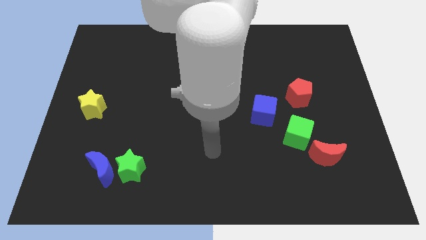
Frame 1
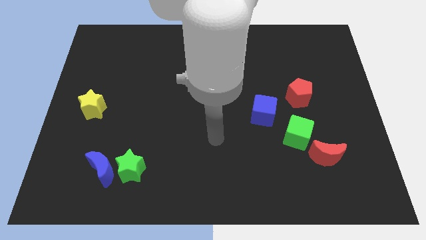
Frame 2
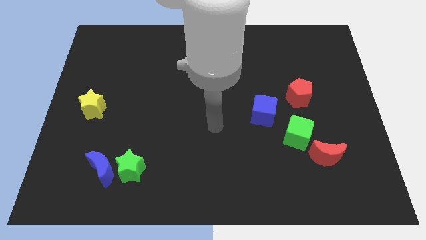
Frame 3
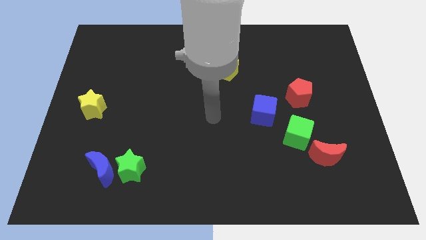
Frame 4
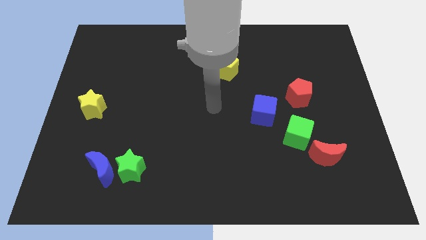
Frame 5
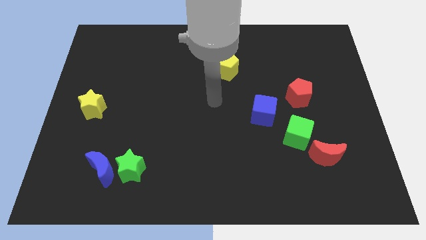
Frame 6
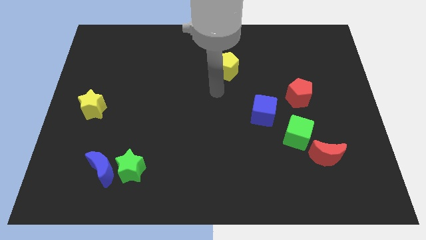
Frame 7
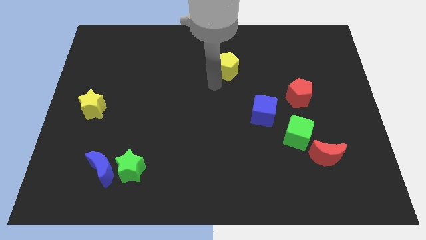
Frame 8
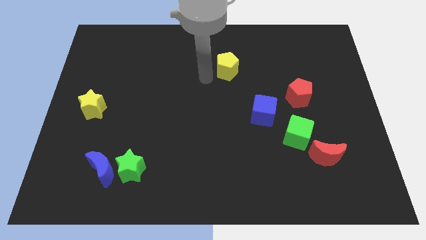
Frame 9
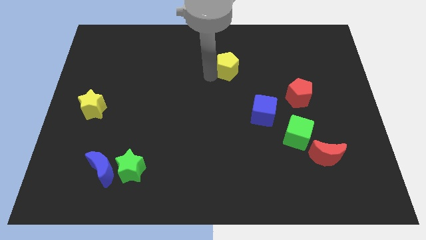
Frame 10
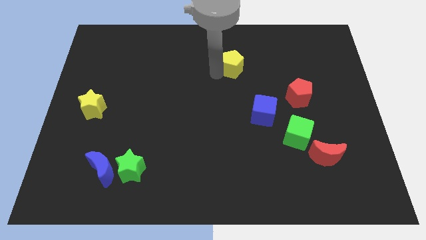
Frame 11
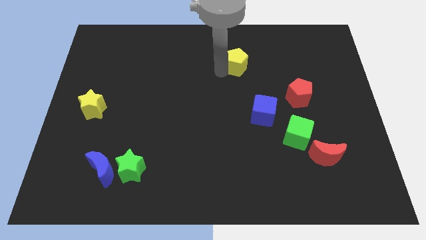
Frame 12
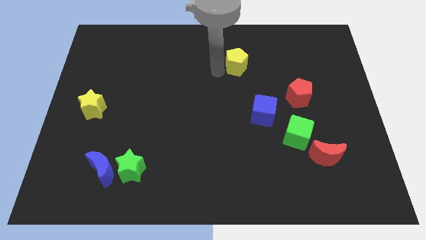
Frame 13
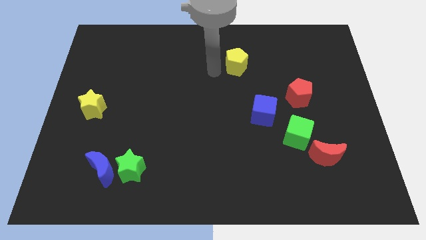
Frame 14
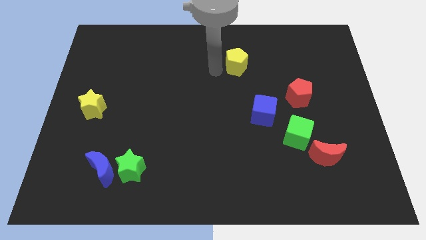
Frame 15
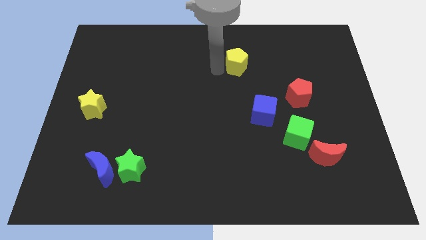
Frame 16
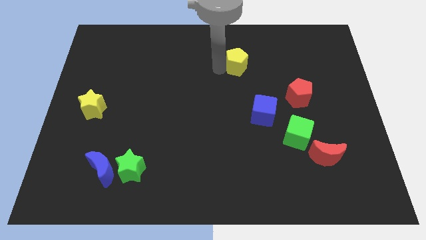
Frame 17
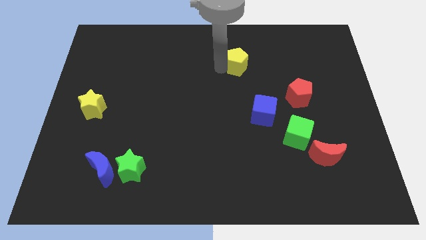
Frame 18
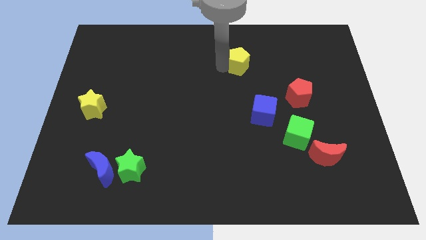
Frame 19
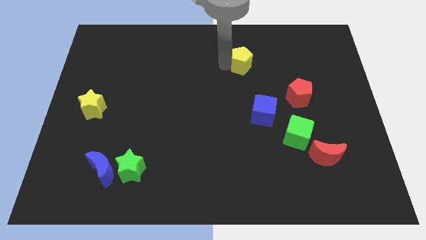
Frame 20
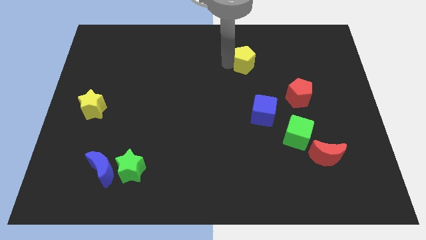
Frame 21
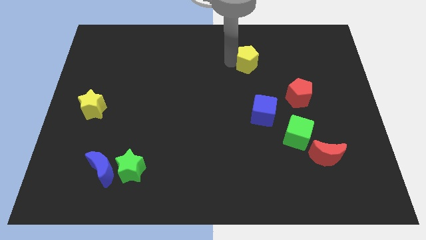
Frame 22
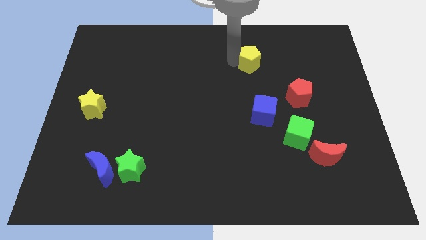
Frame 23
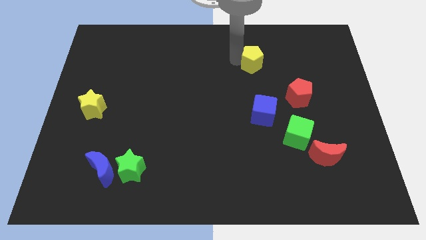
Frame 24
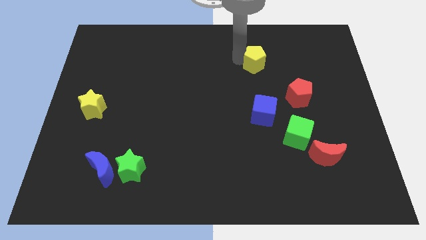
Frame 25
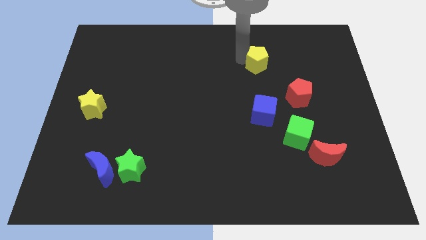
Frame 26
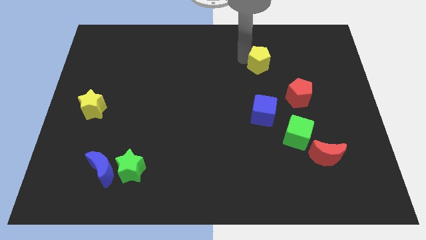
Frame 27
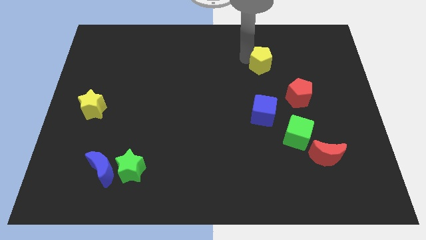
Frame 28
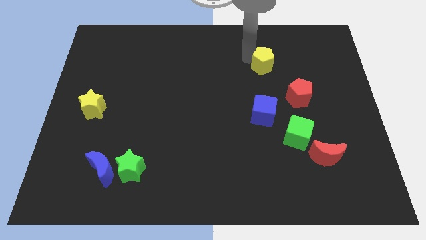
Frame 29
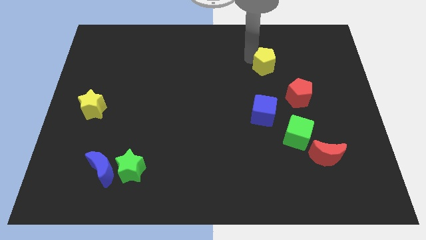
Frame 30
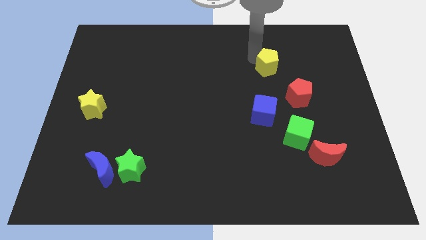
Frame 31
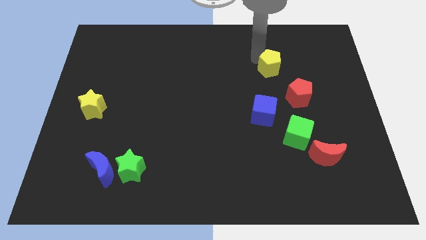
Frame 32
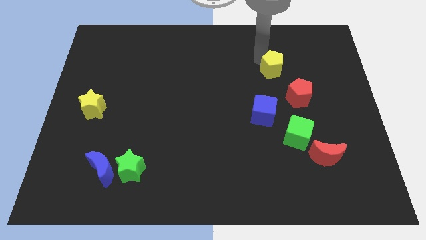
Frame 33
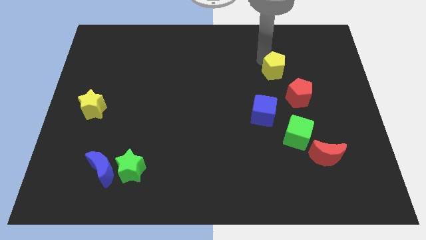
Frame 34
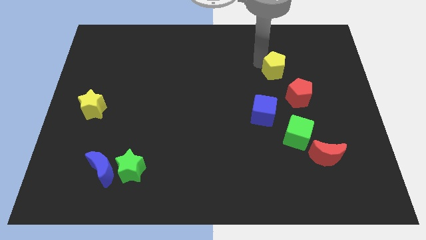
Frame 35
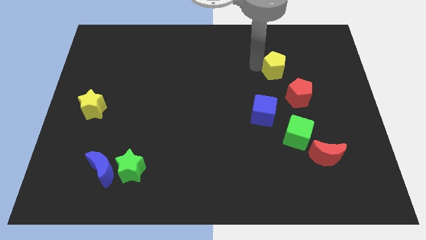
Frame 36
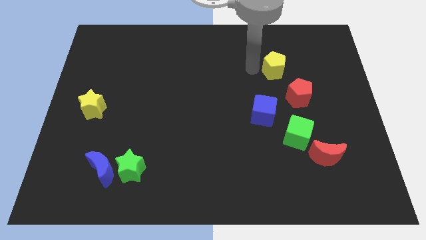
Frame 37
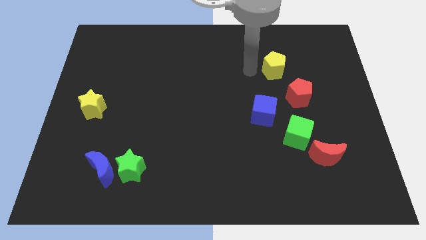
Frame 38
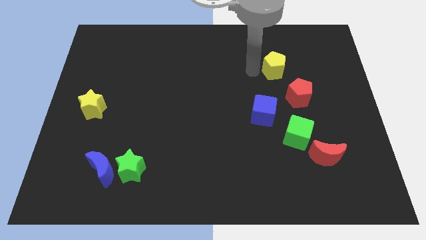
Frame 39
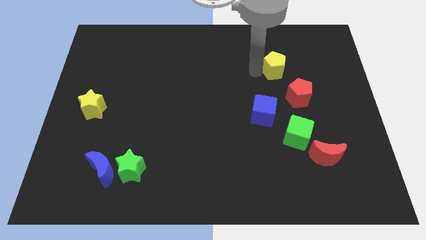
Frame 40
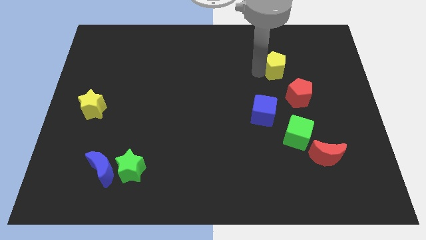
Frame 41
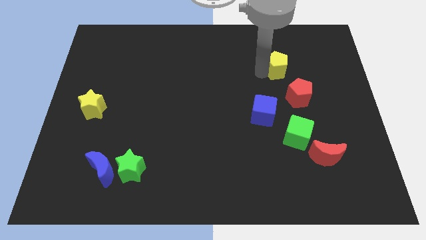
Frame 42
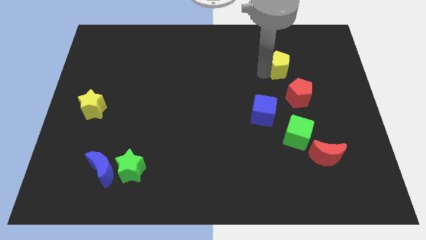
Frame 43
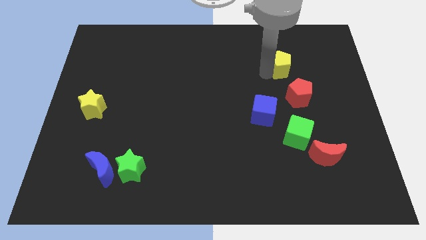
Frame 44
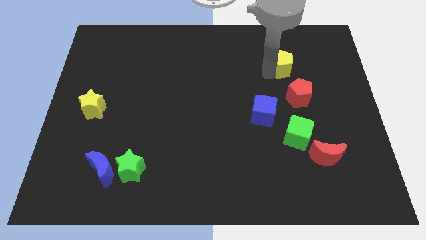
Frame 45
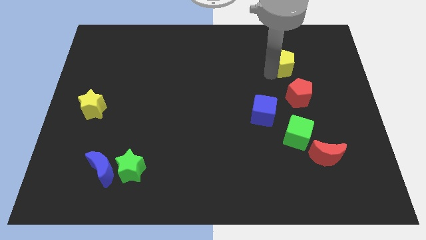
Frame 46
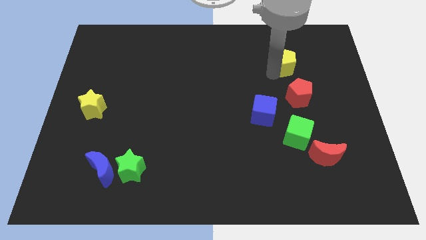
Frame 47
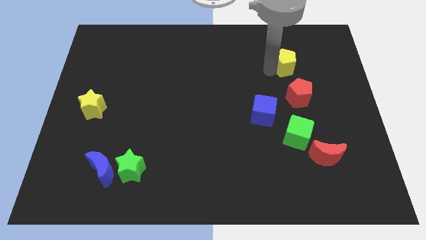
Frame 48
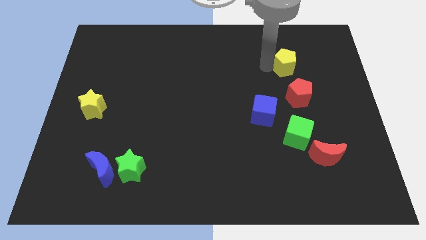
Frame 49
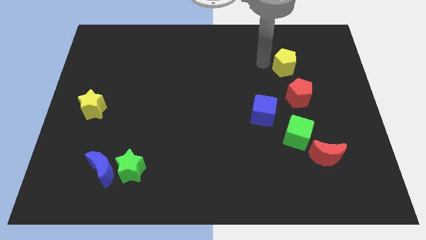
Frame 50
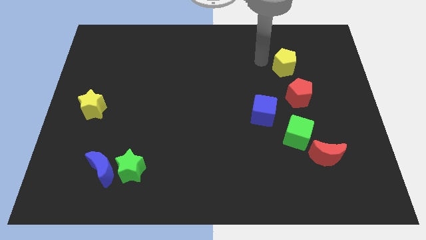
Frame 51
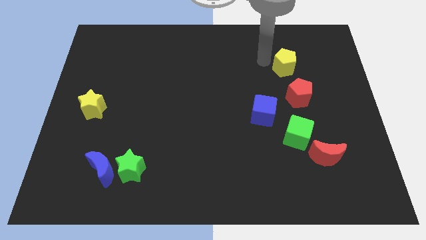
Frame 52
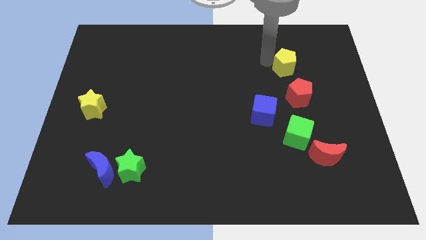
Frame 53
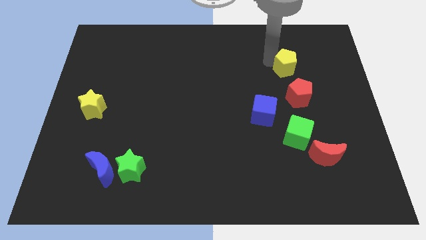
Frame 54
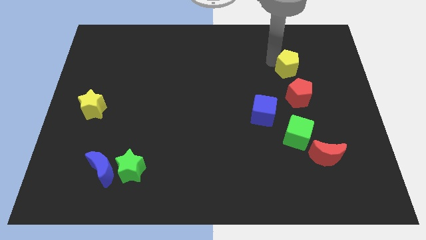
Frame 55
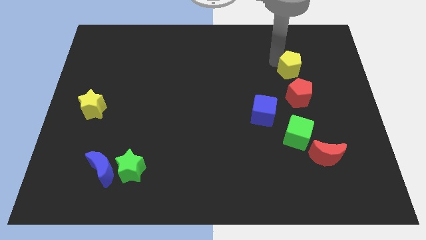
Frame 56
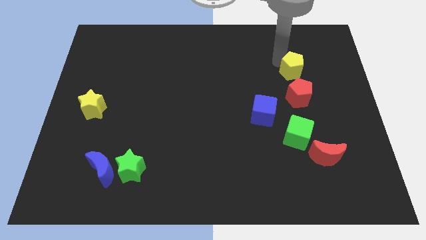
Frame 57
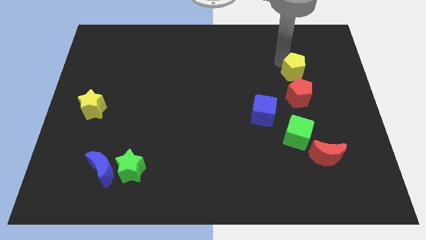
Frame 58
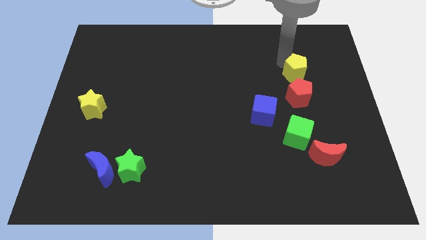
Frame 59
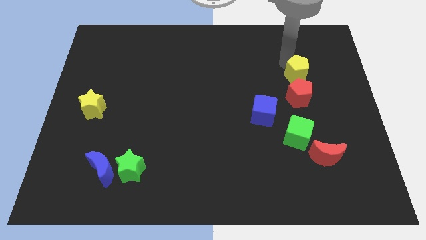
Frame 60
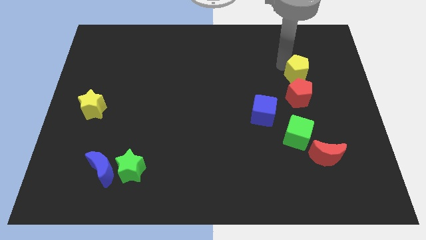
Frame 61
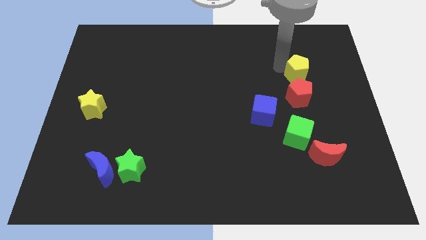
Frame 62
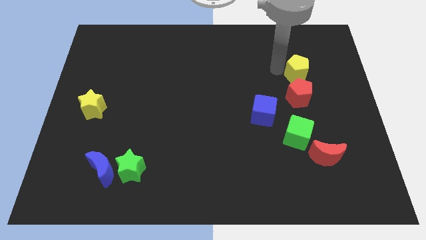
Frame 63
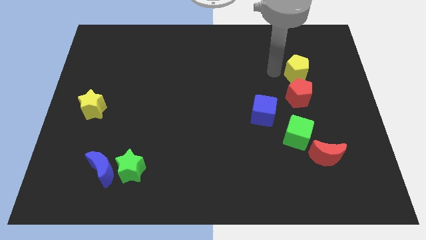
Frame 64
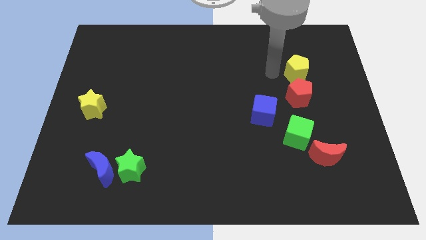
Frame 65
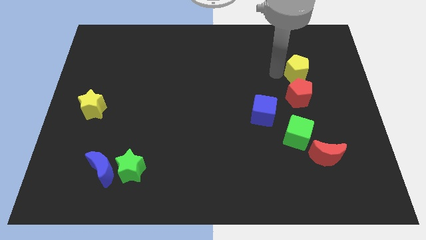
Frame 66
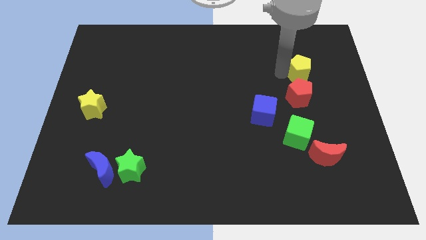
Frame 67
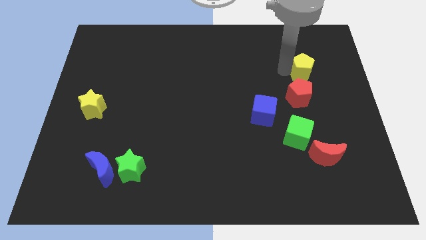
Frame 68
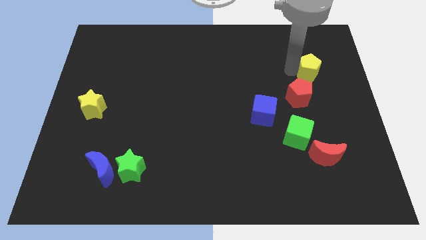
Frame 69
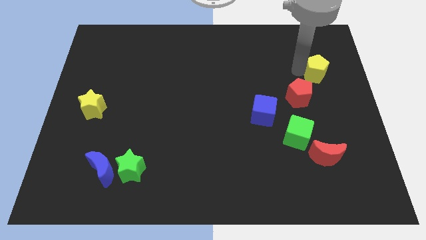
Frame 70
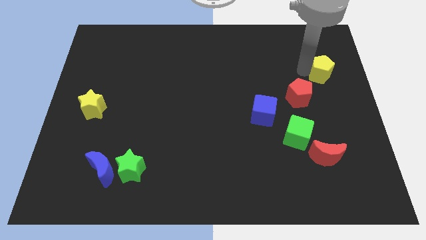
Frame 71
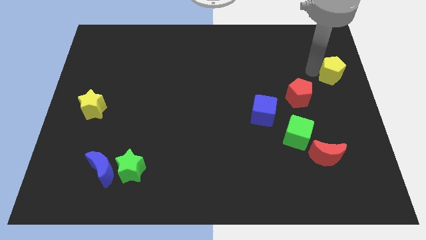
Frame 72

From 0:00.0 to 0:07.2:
move the yellow pentagon to the right side
